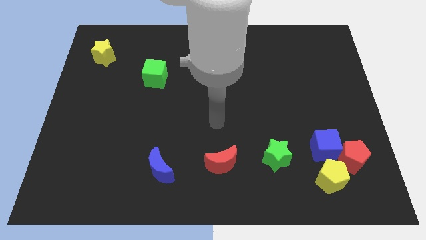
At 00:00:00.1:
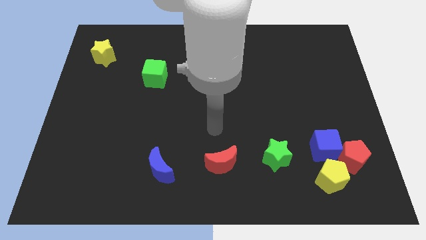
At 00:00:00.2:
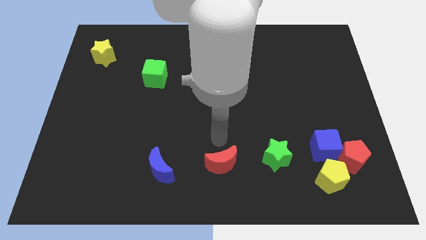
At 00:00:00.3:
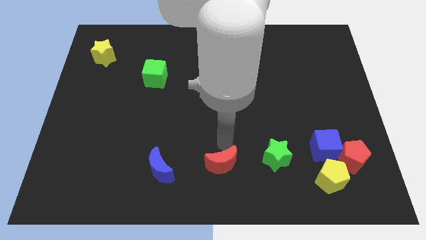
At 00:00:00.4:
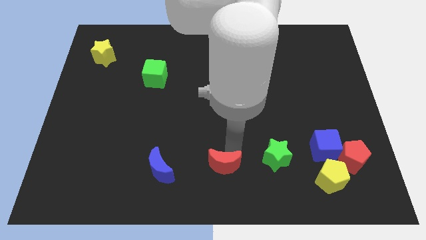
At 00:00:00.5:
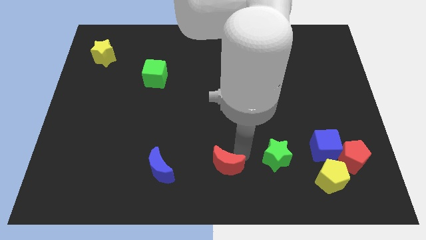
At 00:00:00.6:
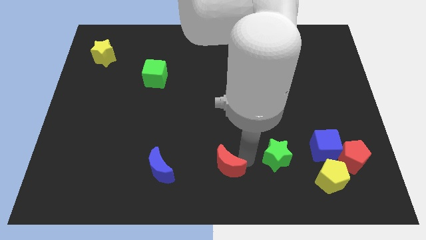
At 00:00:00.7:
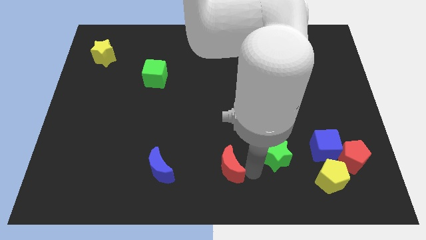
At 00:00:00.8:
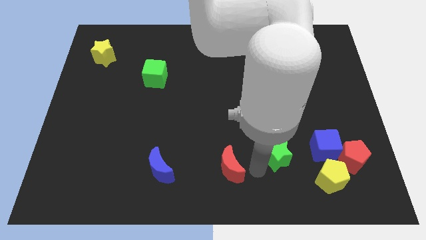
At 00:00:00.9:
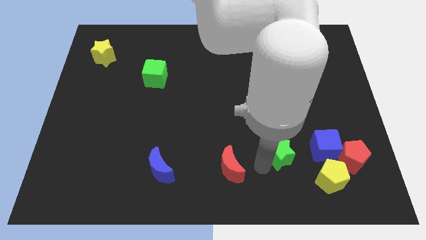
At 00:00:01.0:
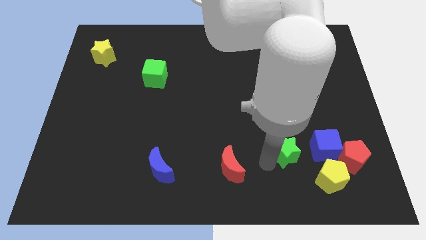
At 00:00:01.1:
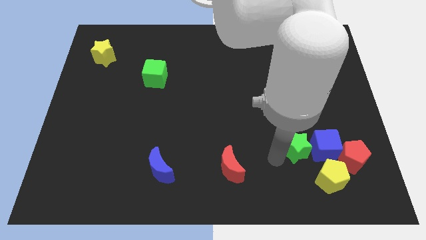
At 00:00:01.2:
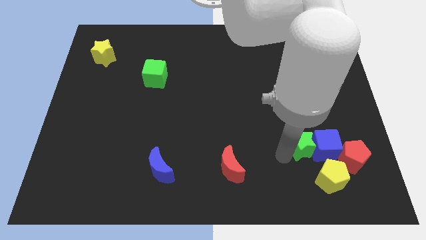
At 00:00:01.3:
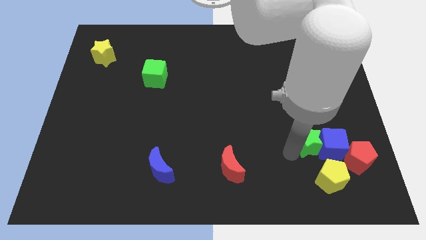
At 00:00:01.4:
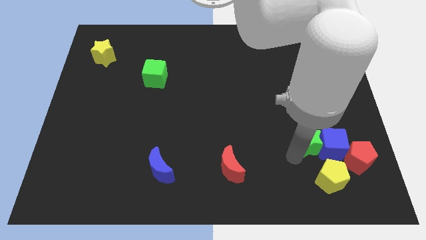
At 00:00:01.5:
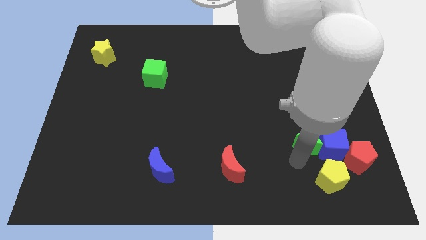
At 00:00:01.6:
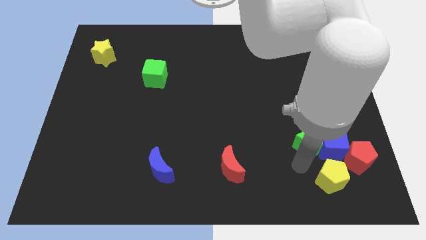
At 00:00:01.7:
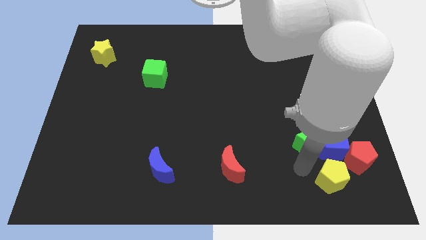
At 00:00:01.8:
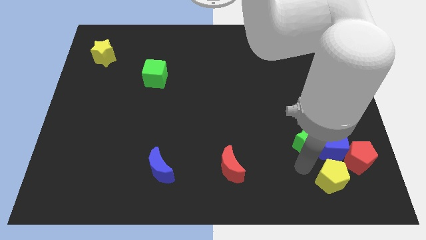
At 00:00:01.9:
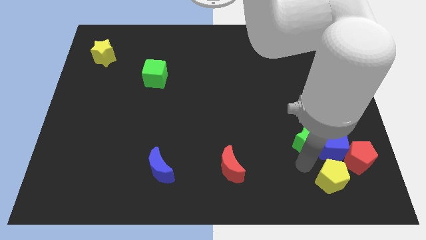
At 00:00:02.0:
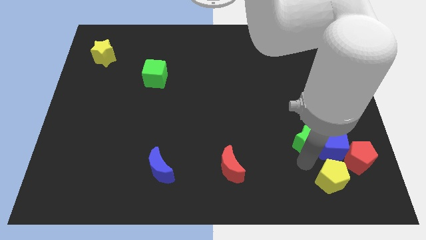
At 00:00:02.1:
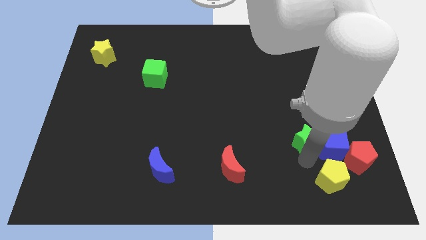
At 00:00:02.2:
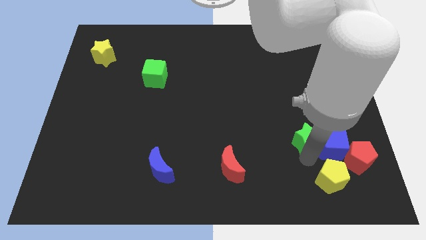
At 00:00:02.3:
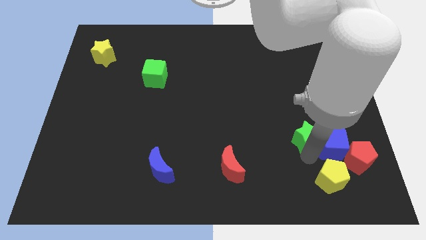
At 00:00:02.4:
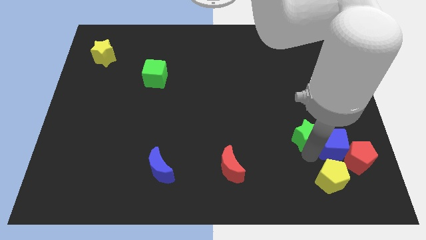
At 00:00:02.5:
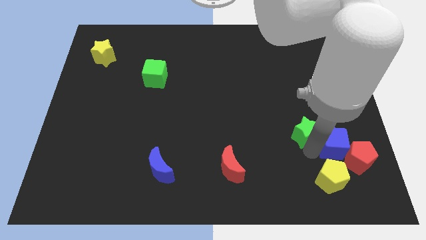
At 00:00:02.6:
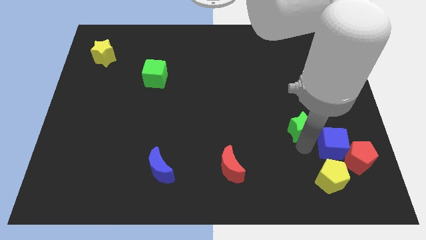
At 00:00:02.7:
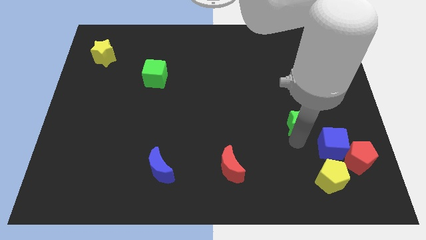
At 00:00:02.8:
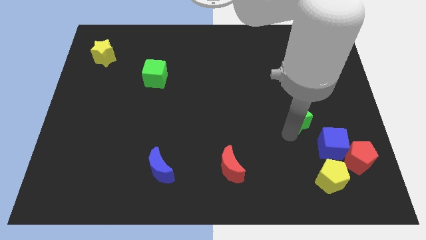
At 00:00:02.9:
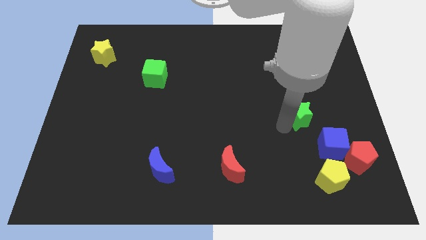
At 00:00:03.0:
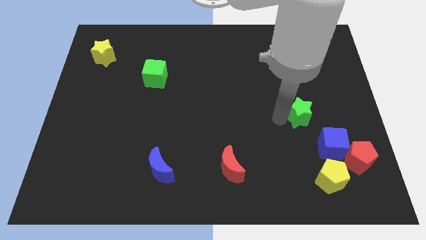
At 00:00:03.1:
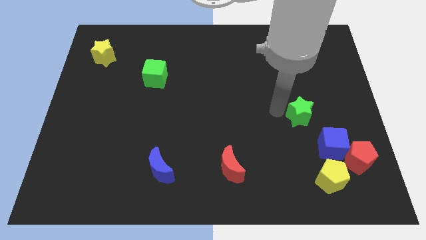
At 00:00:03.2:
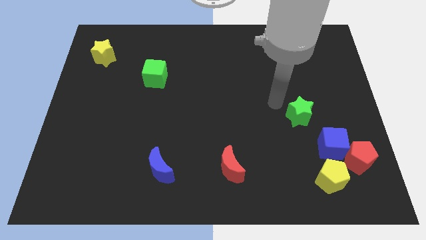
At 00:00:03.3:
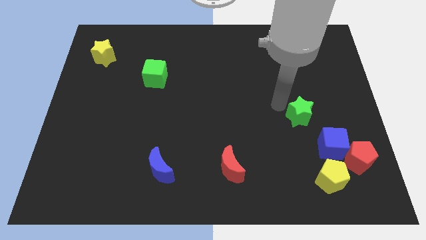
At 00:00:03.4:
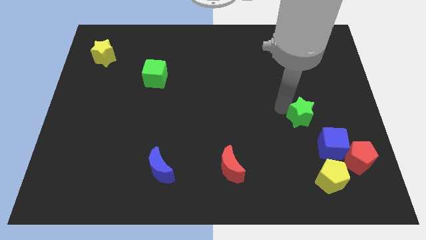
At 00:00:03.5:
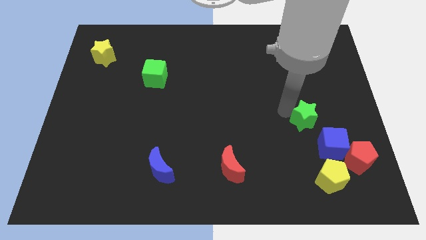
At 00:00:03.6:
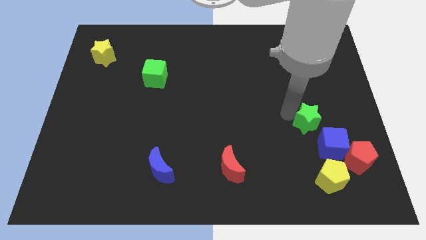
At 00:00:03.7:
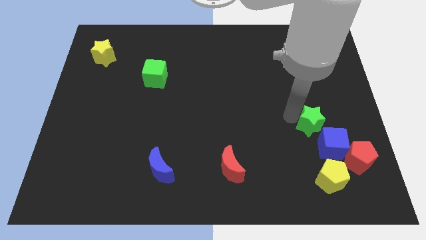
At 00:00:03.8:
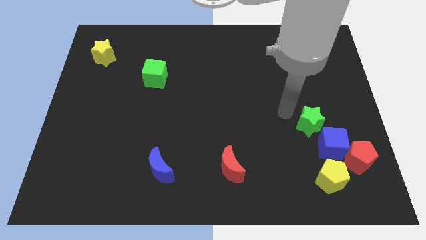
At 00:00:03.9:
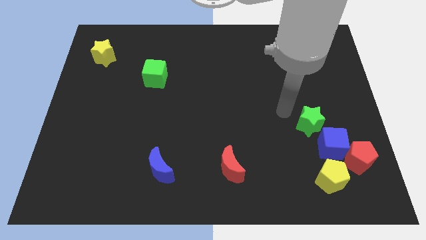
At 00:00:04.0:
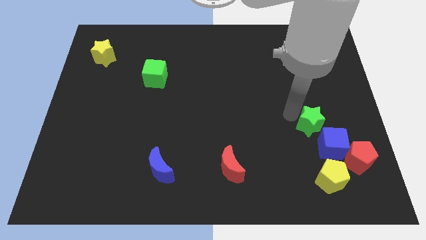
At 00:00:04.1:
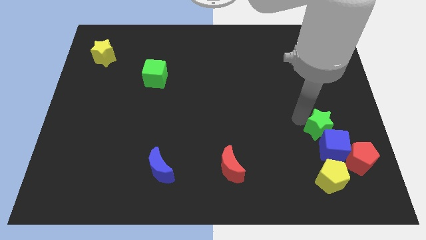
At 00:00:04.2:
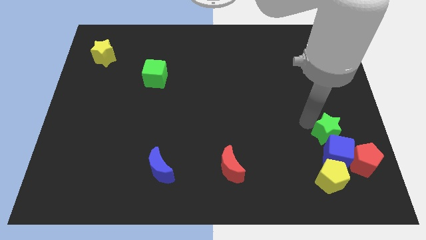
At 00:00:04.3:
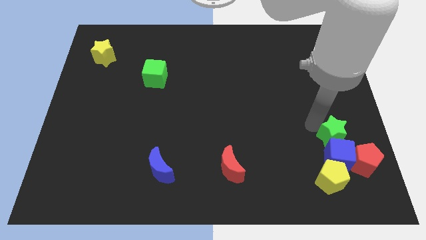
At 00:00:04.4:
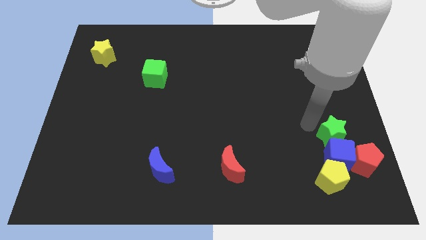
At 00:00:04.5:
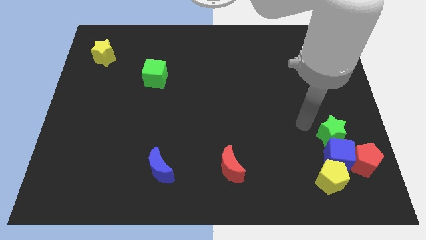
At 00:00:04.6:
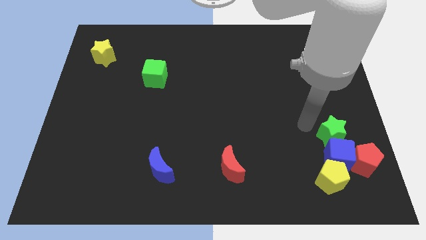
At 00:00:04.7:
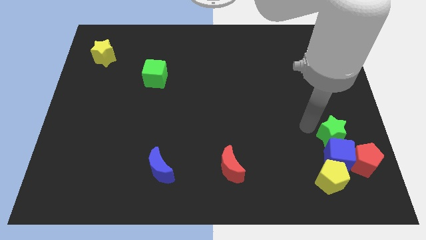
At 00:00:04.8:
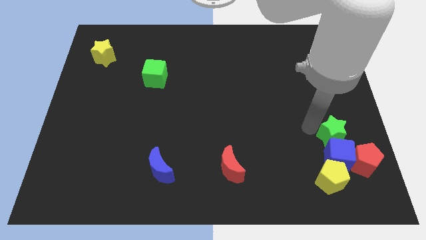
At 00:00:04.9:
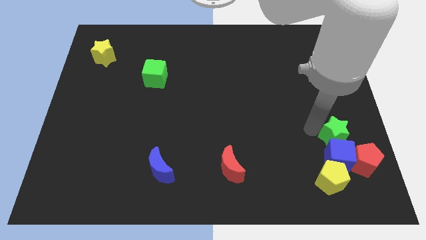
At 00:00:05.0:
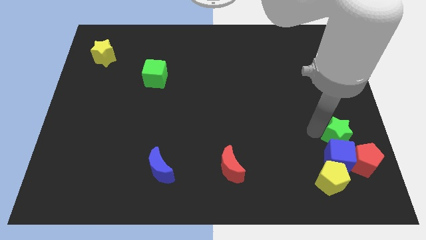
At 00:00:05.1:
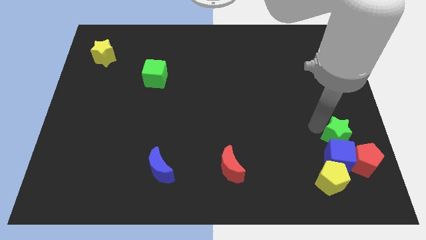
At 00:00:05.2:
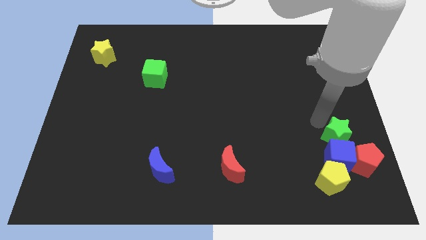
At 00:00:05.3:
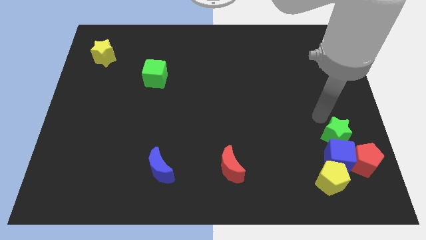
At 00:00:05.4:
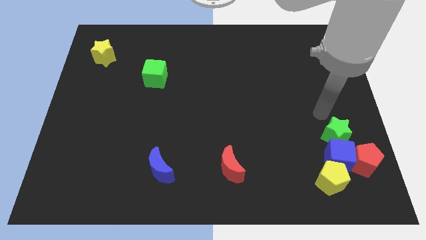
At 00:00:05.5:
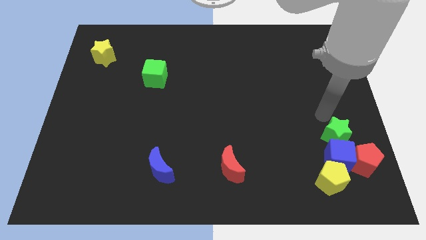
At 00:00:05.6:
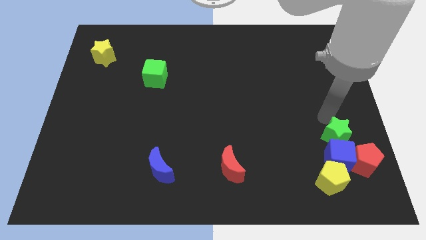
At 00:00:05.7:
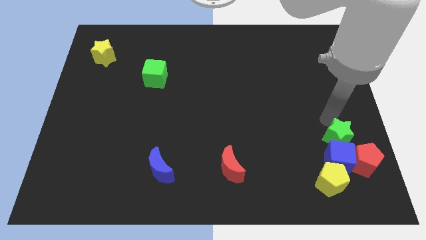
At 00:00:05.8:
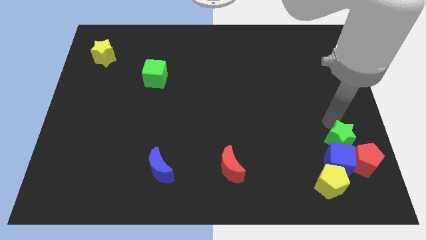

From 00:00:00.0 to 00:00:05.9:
put the green star diagonally up and to the right of the yellow pentagon
